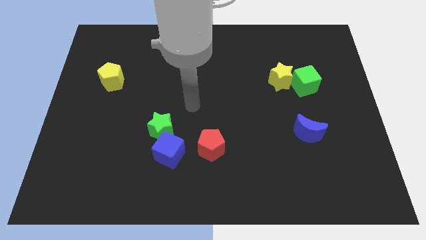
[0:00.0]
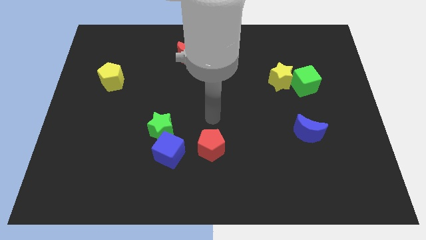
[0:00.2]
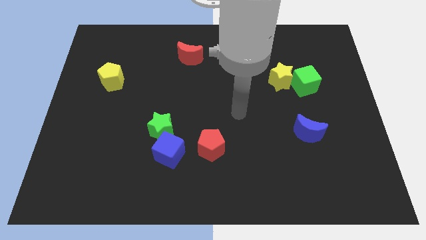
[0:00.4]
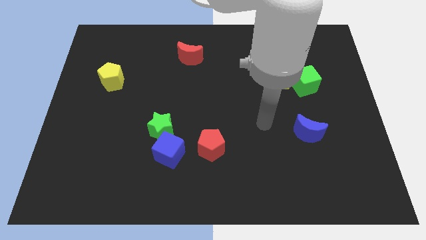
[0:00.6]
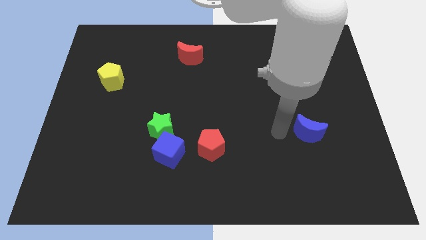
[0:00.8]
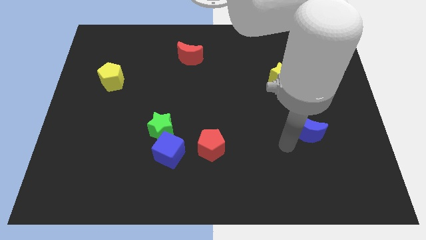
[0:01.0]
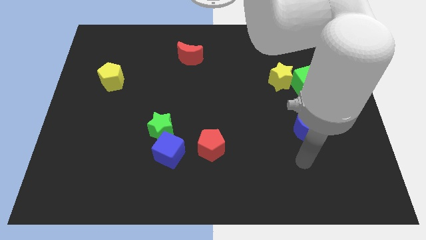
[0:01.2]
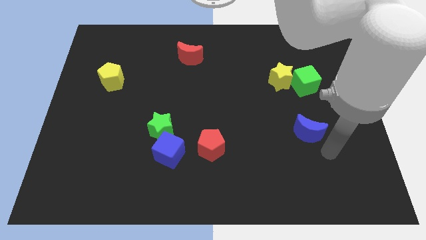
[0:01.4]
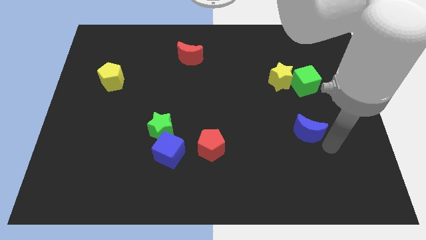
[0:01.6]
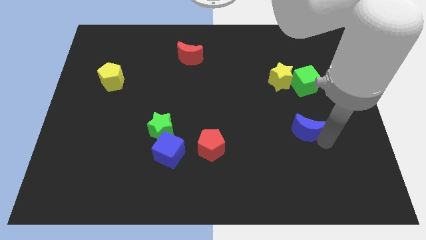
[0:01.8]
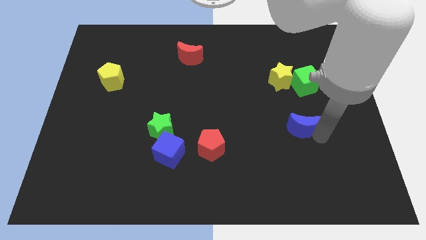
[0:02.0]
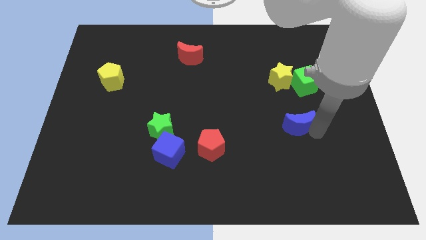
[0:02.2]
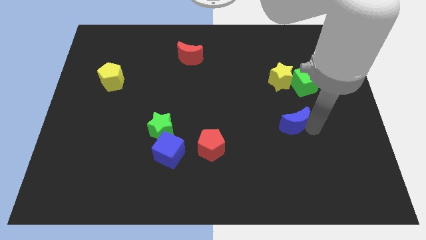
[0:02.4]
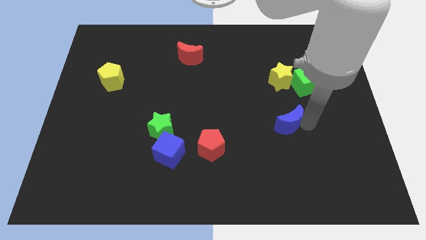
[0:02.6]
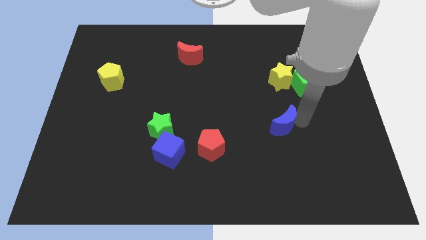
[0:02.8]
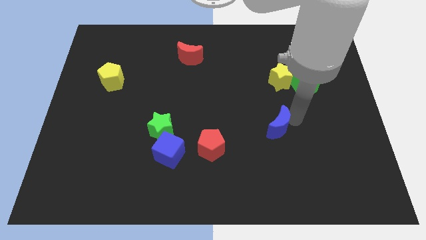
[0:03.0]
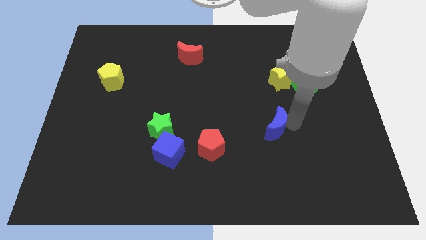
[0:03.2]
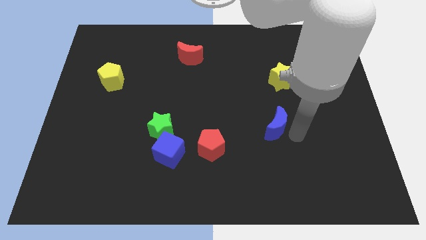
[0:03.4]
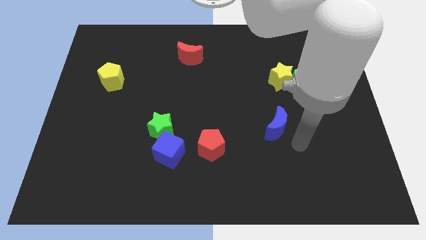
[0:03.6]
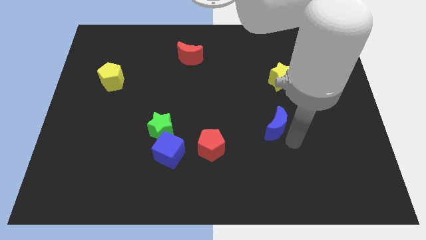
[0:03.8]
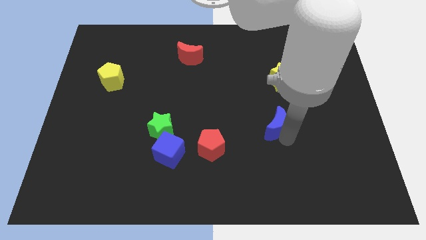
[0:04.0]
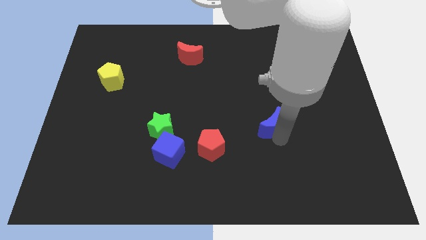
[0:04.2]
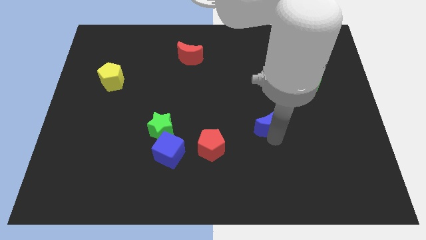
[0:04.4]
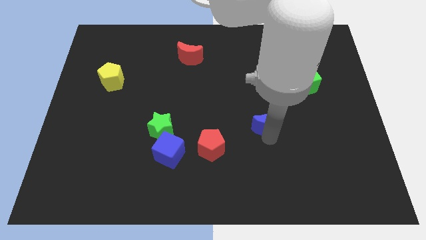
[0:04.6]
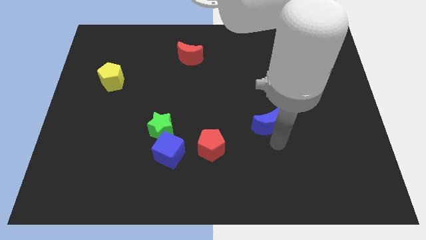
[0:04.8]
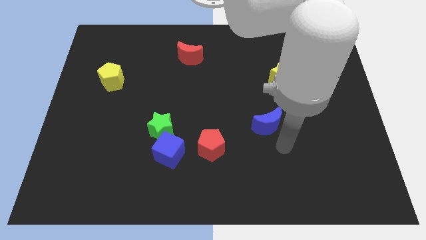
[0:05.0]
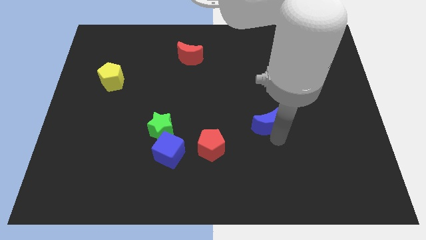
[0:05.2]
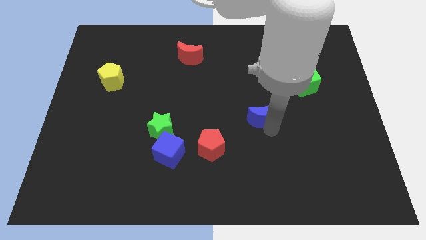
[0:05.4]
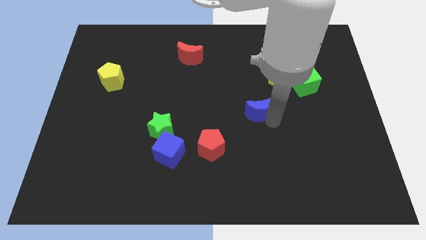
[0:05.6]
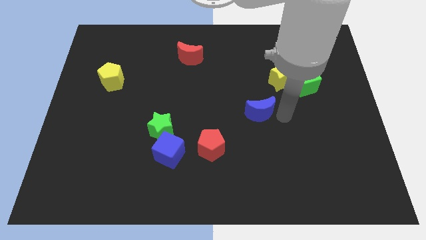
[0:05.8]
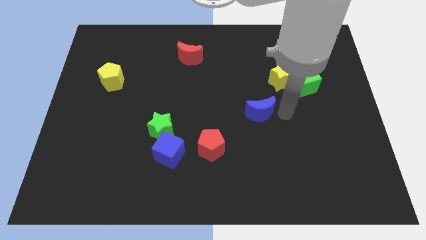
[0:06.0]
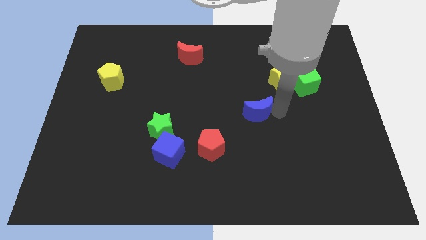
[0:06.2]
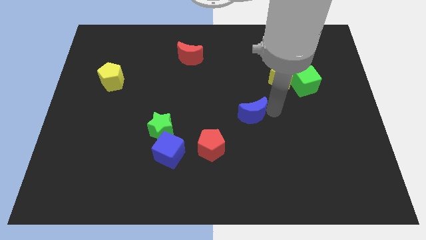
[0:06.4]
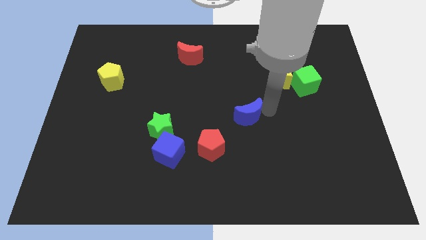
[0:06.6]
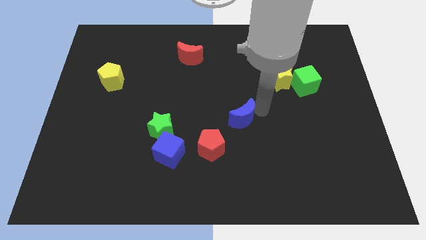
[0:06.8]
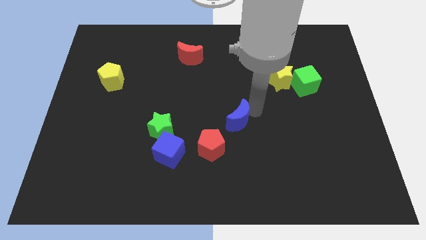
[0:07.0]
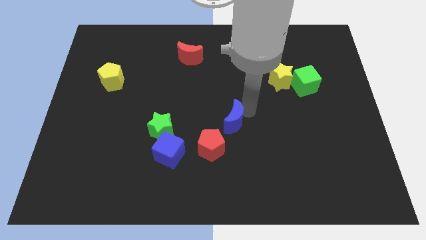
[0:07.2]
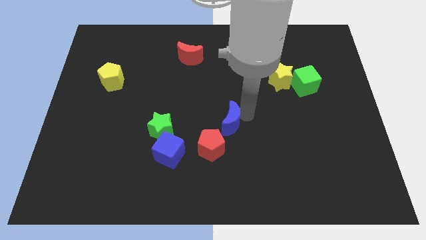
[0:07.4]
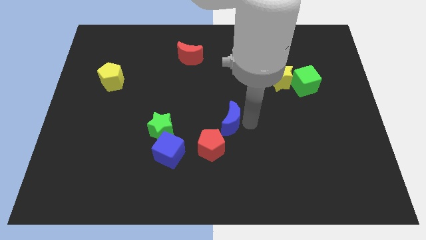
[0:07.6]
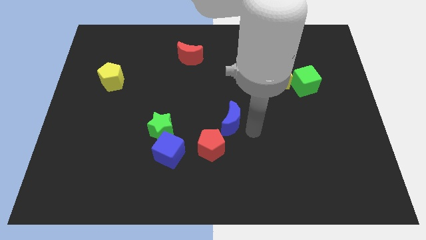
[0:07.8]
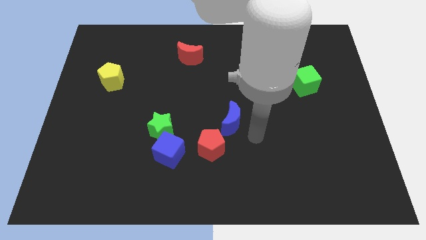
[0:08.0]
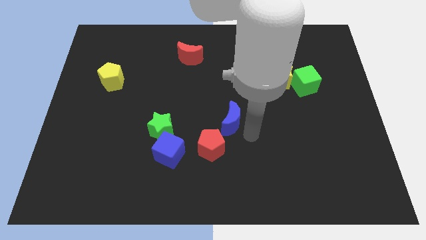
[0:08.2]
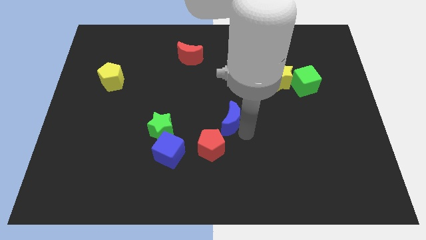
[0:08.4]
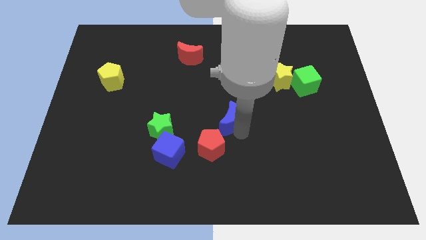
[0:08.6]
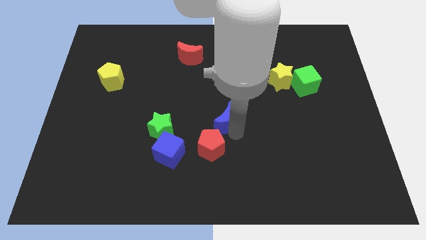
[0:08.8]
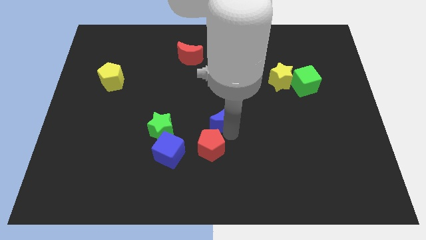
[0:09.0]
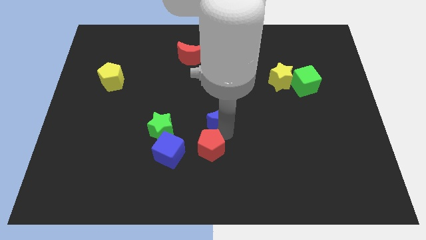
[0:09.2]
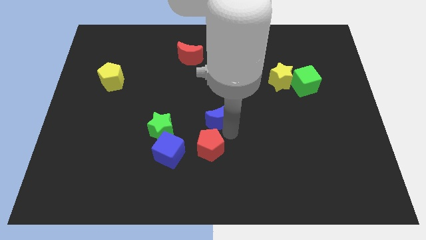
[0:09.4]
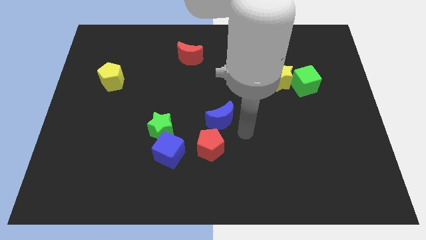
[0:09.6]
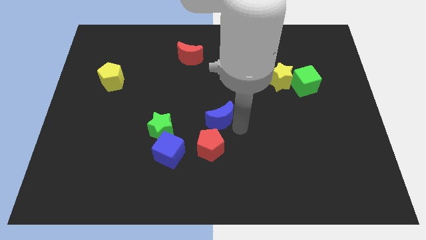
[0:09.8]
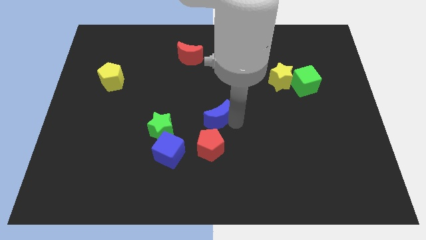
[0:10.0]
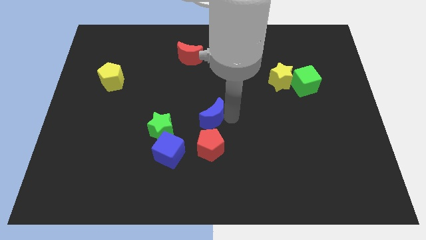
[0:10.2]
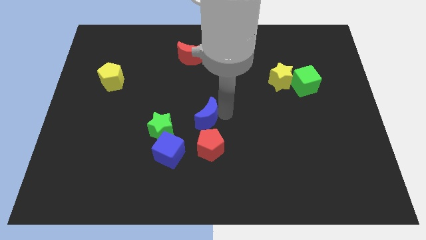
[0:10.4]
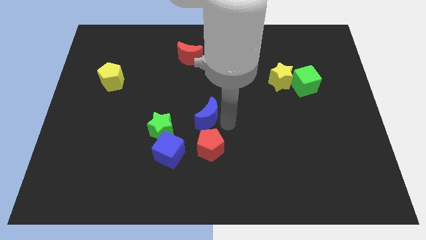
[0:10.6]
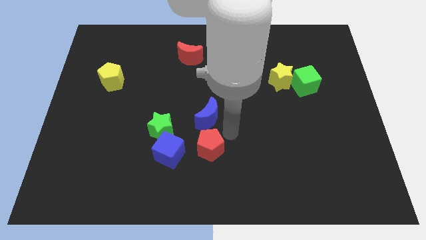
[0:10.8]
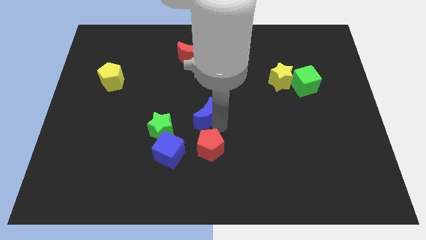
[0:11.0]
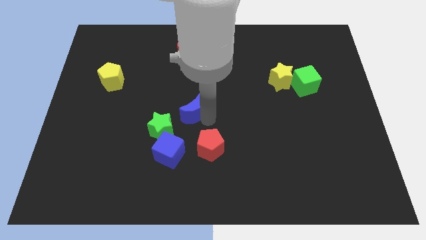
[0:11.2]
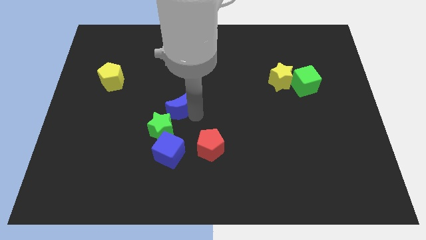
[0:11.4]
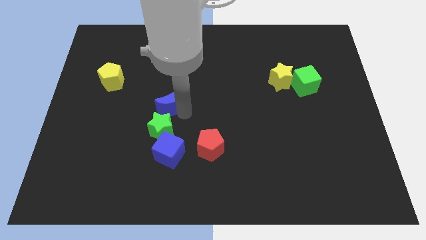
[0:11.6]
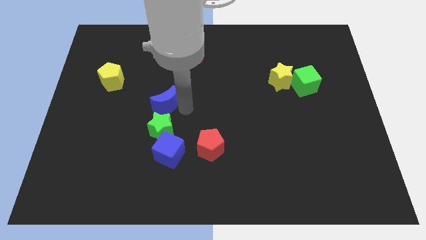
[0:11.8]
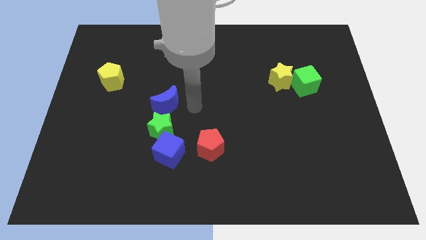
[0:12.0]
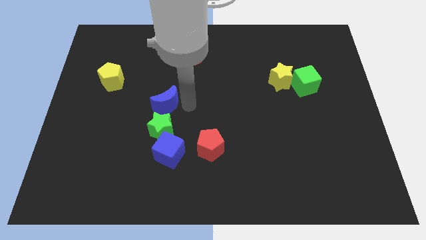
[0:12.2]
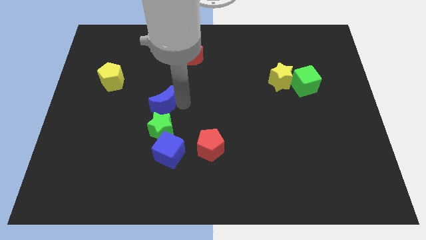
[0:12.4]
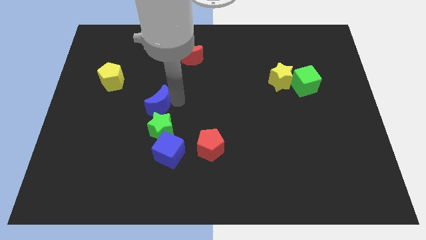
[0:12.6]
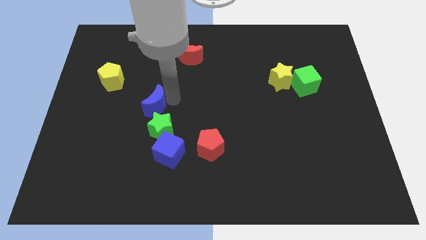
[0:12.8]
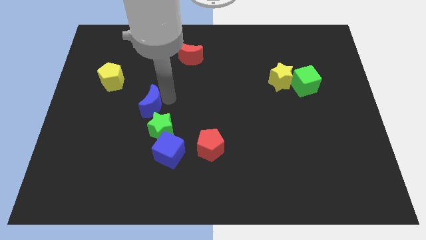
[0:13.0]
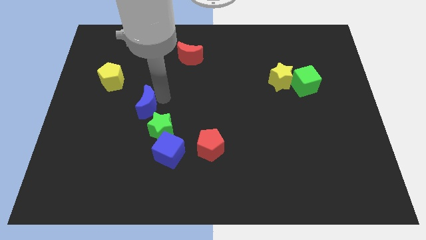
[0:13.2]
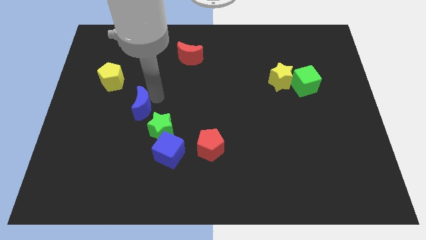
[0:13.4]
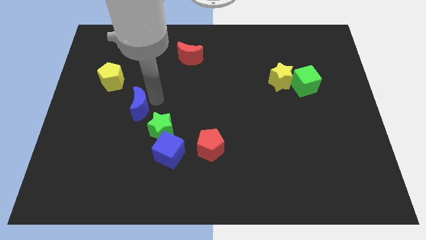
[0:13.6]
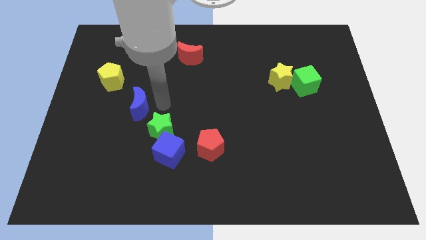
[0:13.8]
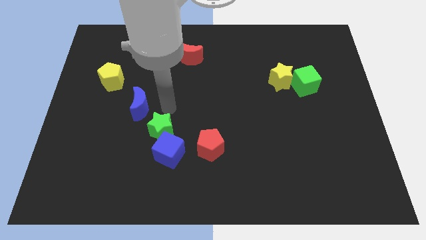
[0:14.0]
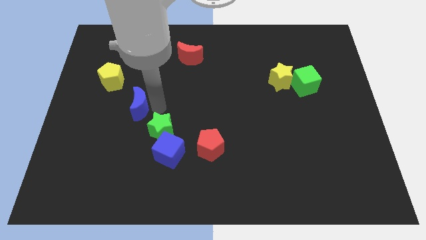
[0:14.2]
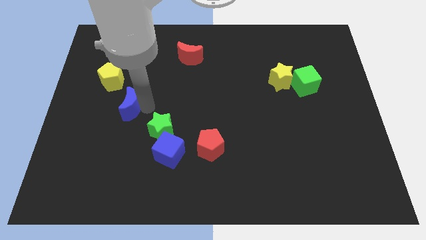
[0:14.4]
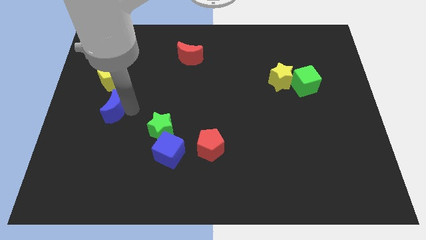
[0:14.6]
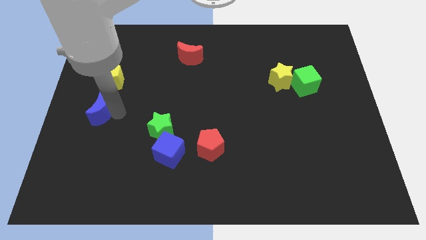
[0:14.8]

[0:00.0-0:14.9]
put the blue moon to the center left
